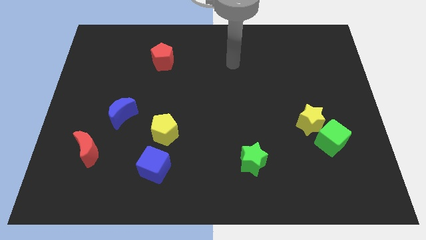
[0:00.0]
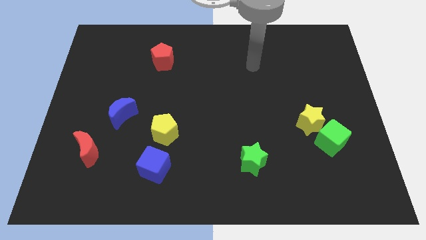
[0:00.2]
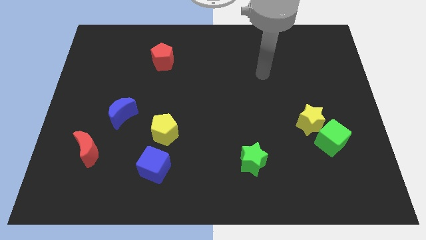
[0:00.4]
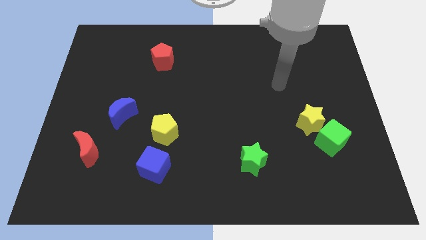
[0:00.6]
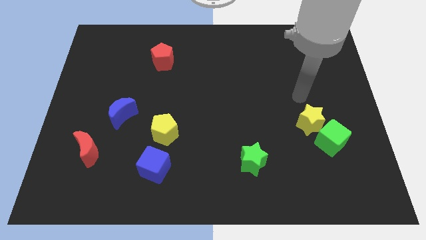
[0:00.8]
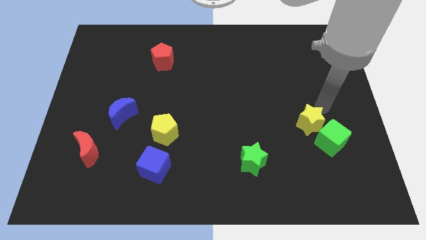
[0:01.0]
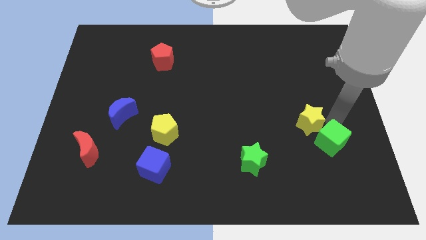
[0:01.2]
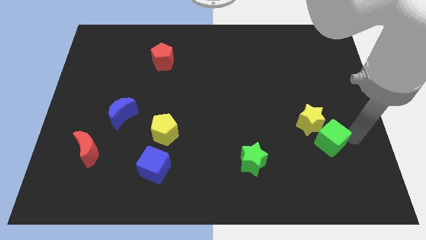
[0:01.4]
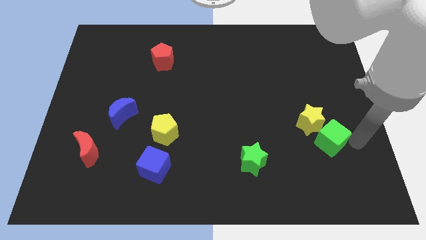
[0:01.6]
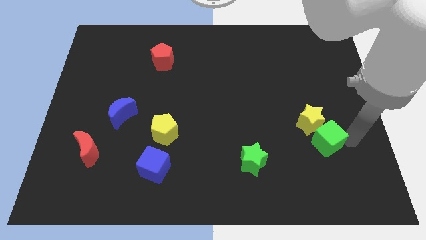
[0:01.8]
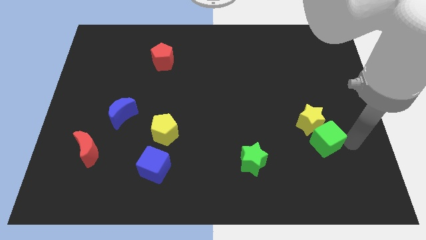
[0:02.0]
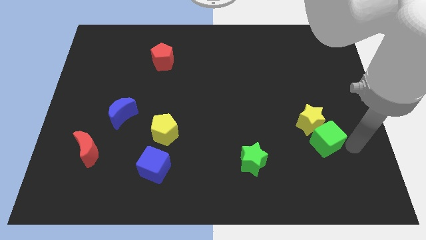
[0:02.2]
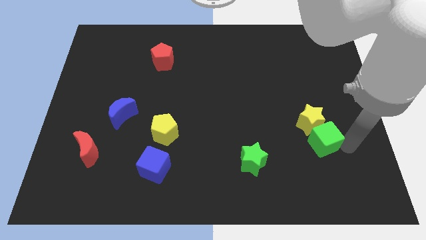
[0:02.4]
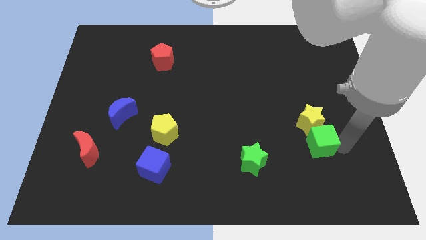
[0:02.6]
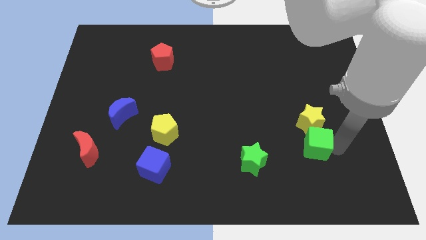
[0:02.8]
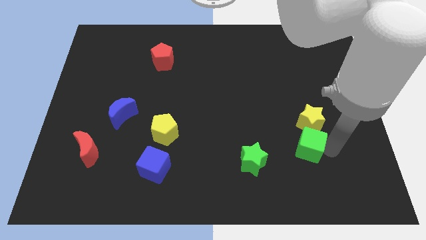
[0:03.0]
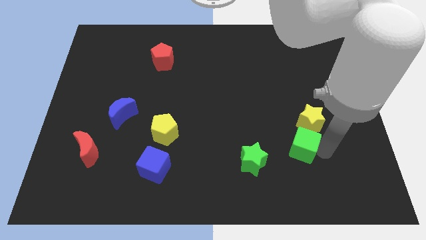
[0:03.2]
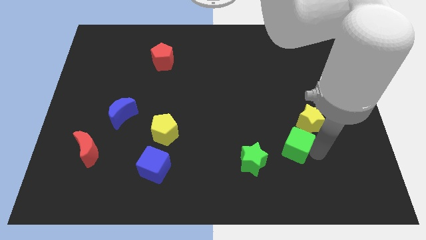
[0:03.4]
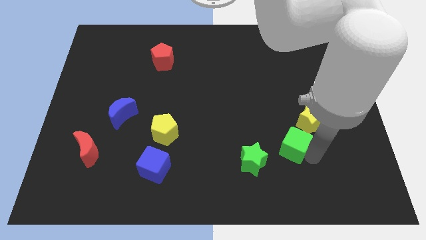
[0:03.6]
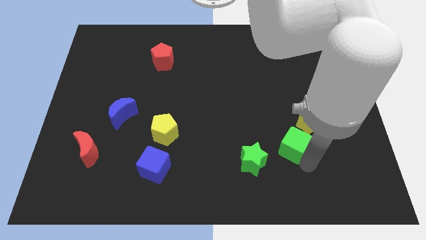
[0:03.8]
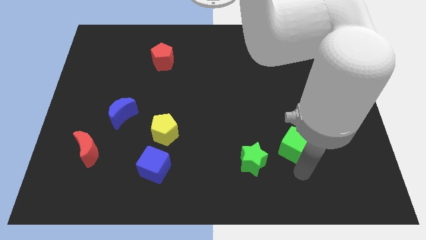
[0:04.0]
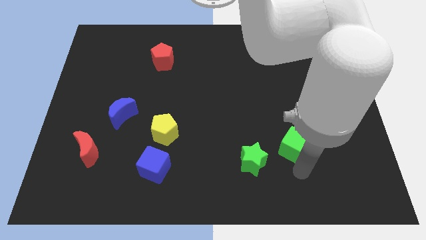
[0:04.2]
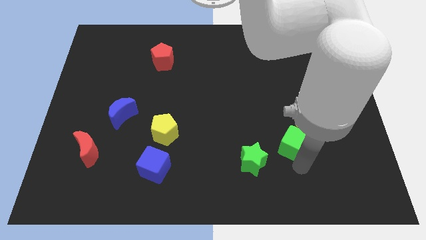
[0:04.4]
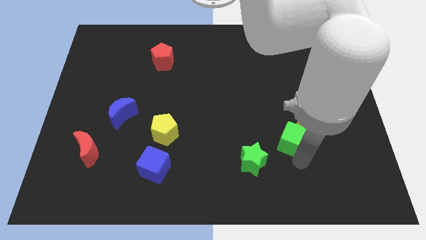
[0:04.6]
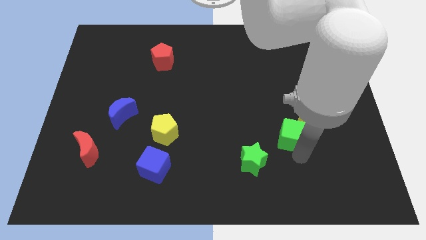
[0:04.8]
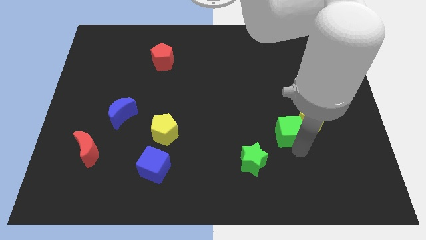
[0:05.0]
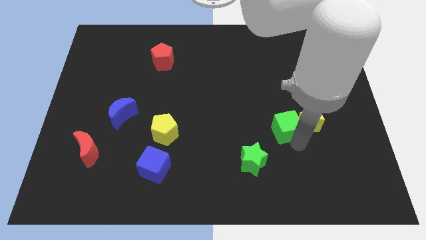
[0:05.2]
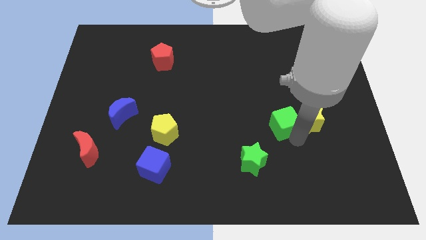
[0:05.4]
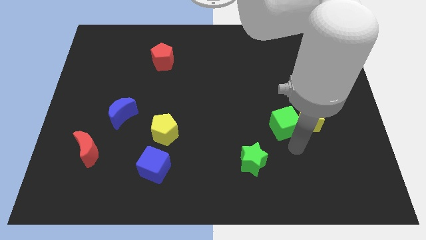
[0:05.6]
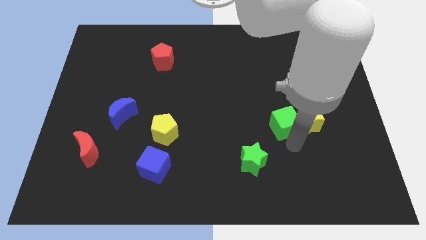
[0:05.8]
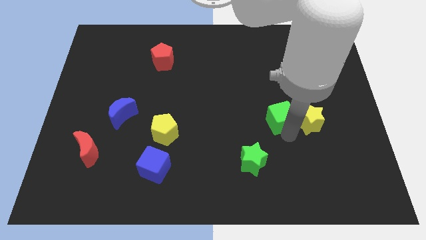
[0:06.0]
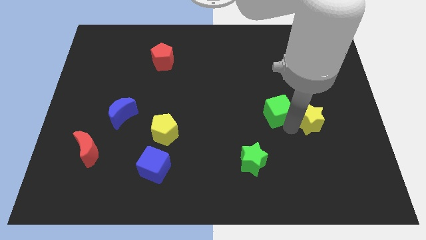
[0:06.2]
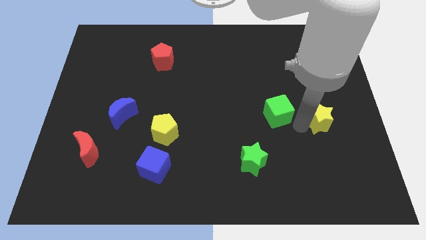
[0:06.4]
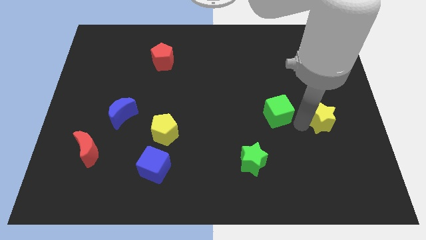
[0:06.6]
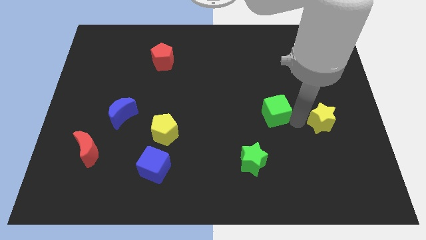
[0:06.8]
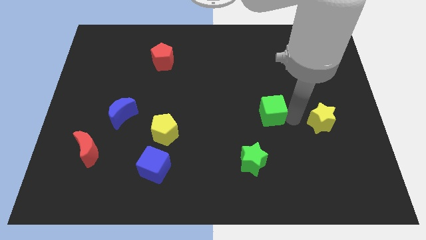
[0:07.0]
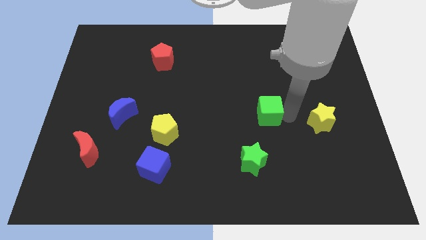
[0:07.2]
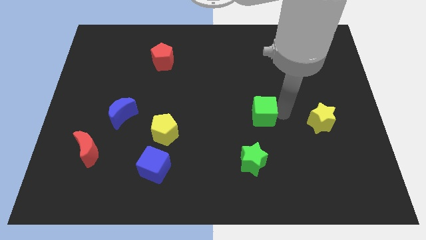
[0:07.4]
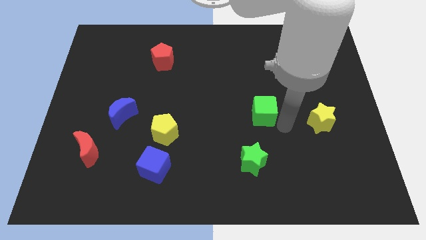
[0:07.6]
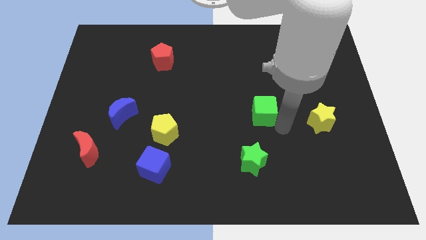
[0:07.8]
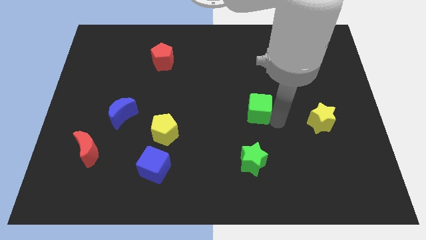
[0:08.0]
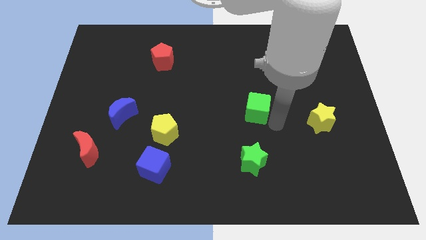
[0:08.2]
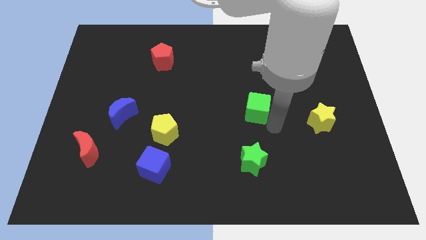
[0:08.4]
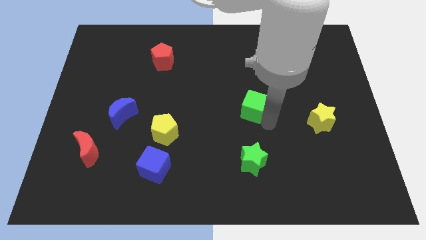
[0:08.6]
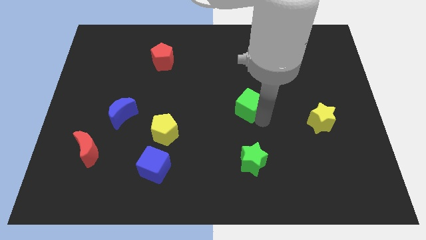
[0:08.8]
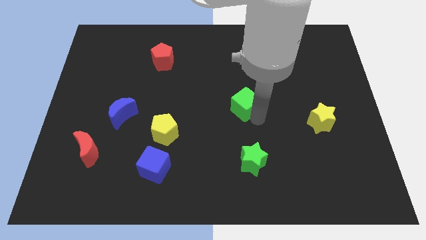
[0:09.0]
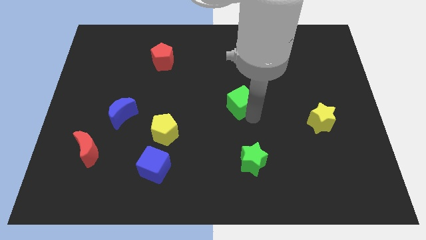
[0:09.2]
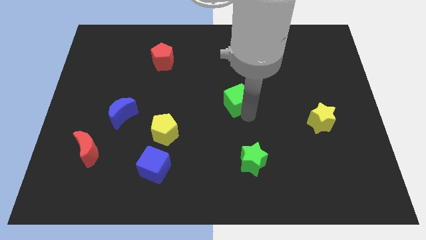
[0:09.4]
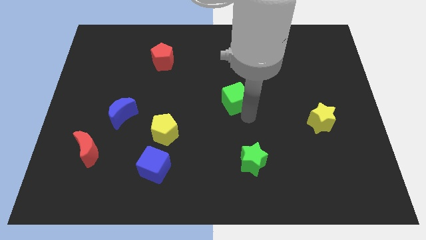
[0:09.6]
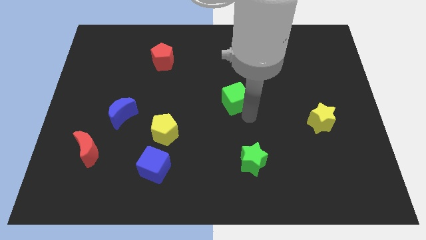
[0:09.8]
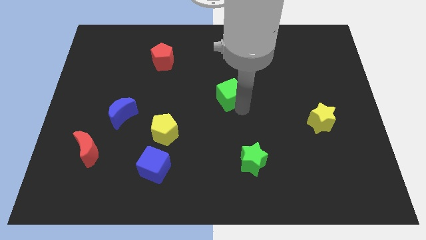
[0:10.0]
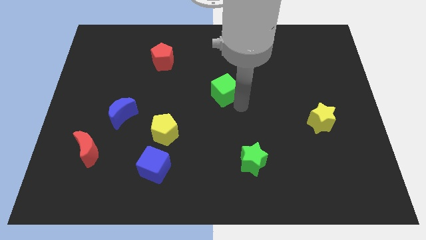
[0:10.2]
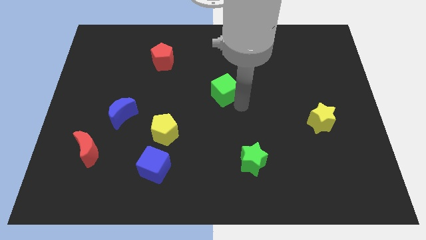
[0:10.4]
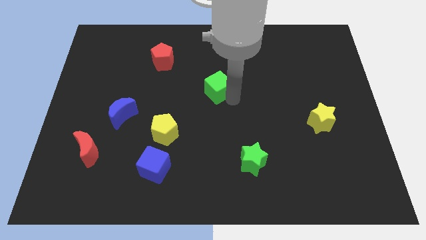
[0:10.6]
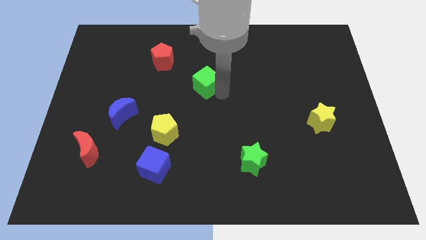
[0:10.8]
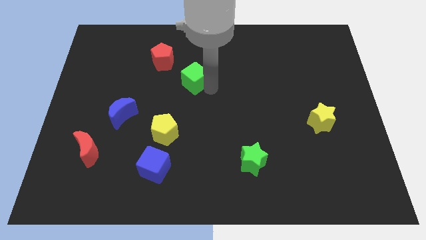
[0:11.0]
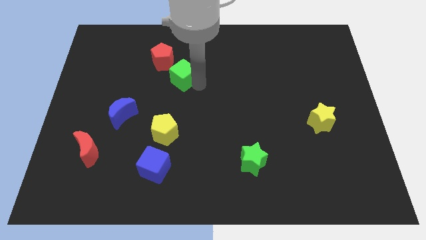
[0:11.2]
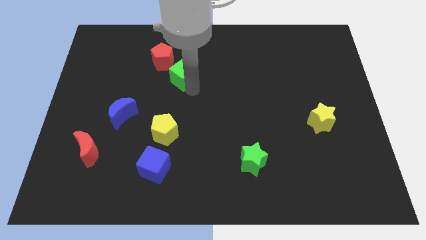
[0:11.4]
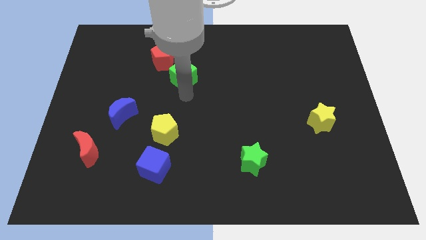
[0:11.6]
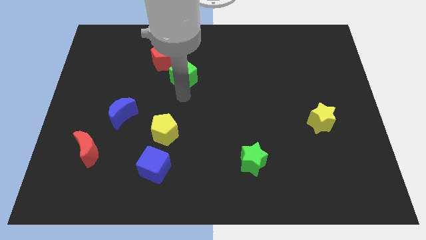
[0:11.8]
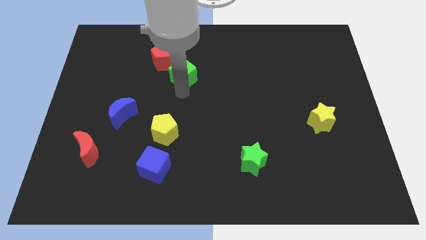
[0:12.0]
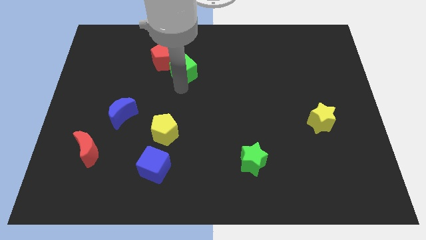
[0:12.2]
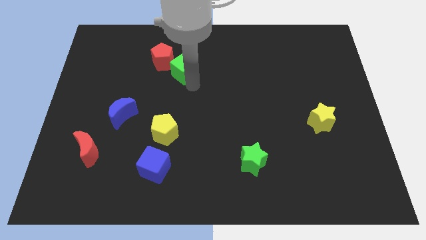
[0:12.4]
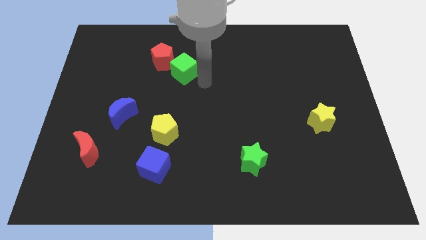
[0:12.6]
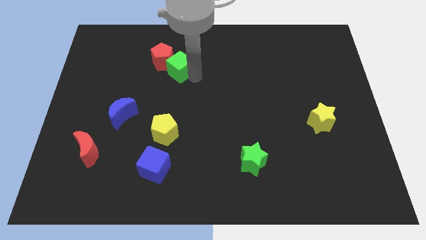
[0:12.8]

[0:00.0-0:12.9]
slide the green cube to the red pentagon

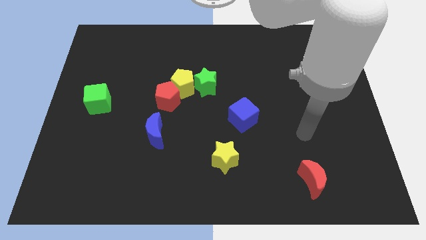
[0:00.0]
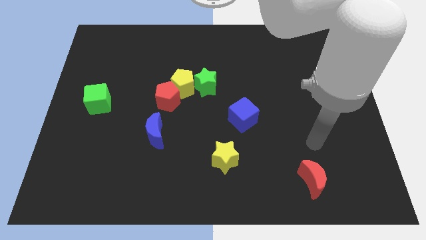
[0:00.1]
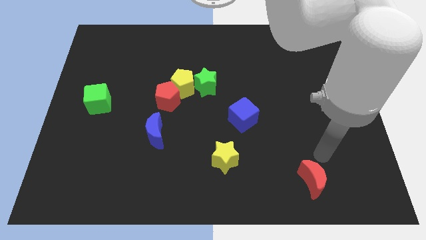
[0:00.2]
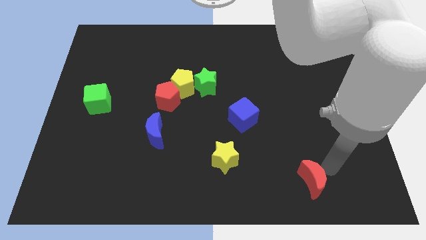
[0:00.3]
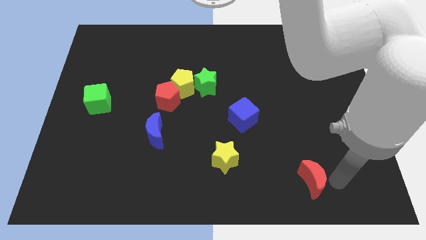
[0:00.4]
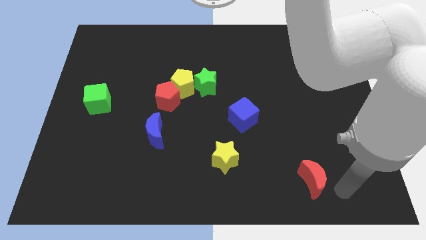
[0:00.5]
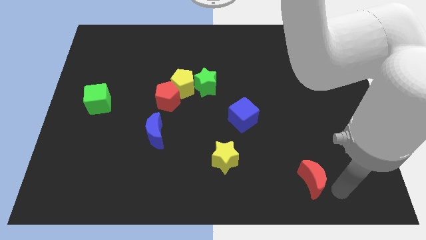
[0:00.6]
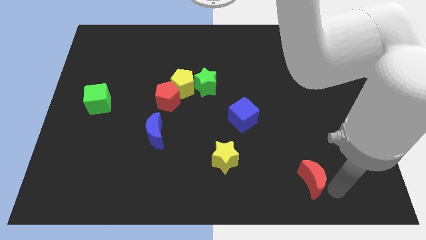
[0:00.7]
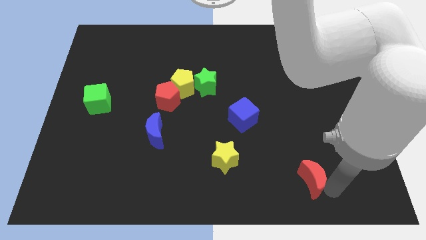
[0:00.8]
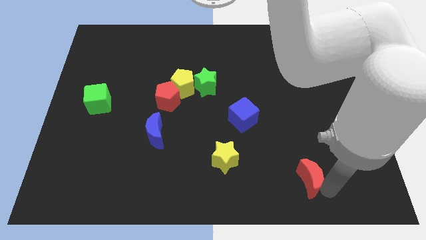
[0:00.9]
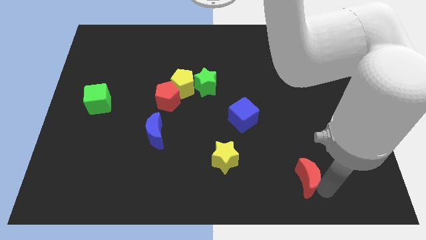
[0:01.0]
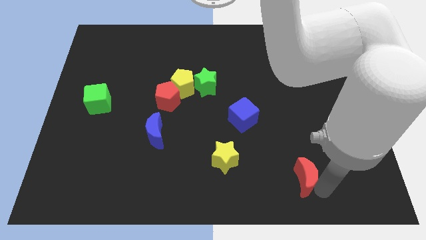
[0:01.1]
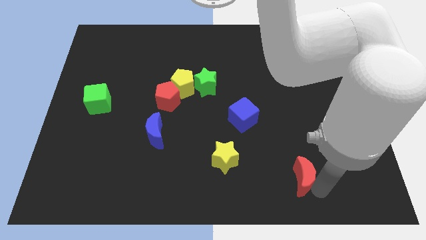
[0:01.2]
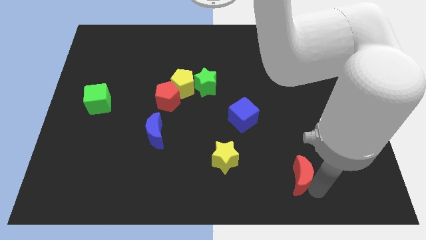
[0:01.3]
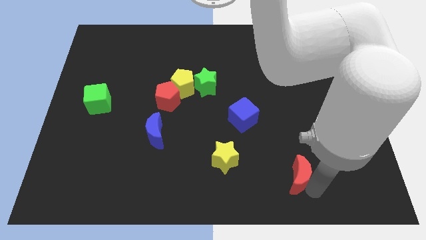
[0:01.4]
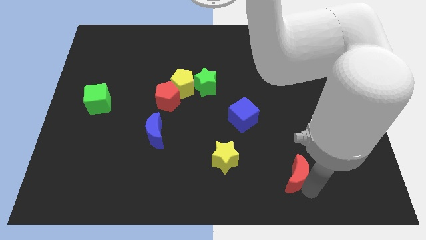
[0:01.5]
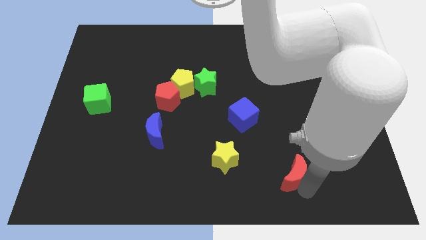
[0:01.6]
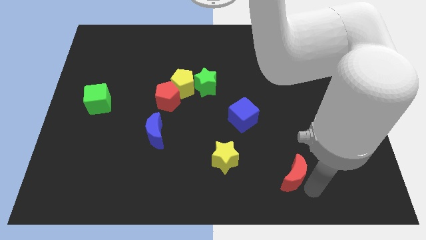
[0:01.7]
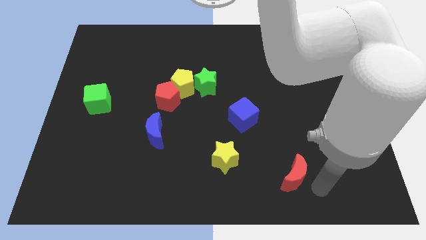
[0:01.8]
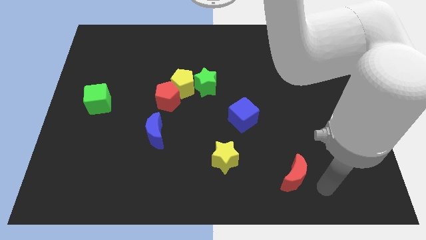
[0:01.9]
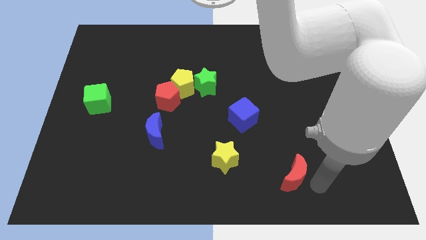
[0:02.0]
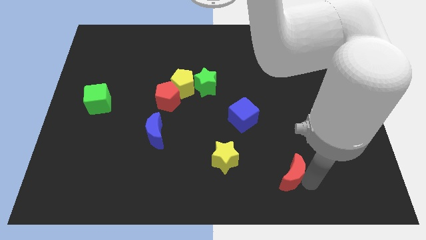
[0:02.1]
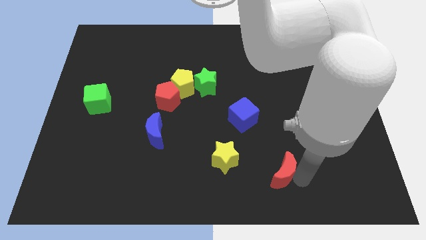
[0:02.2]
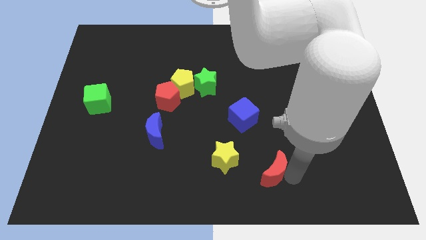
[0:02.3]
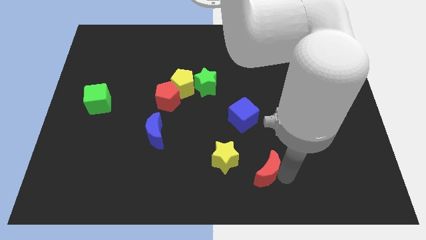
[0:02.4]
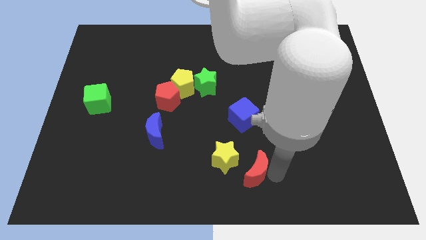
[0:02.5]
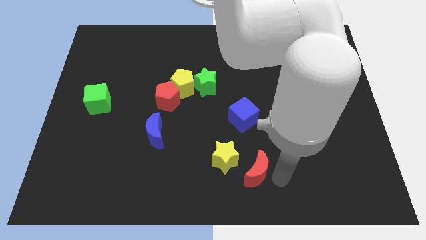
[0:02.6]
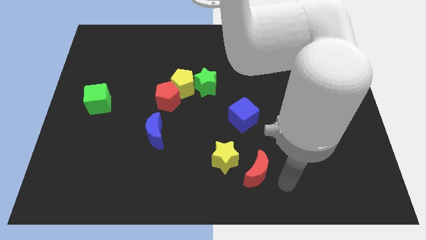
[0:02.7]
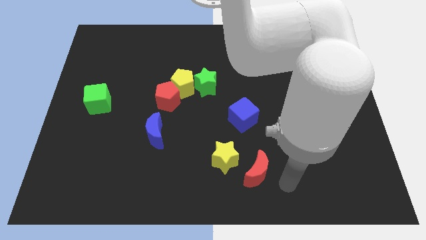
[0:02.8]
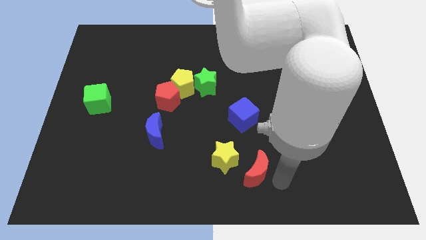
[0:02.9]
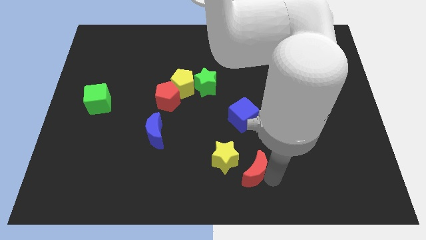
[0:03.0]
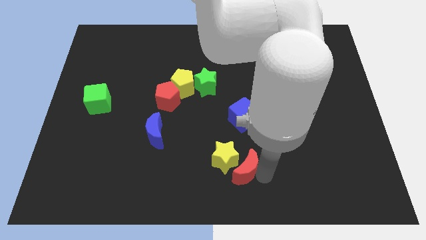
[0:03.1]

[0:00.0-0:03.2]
push the red moon close to the yellow star
